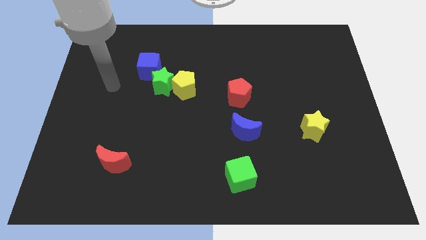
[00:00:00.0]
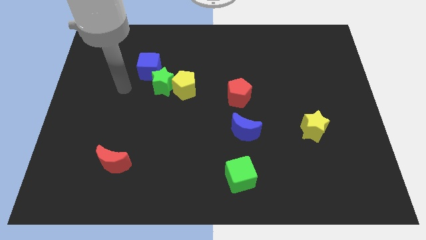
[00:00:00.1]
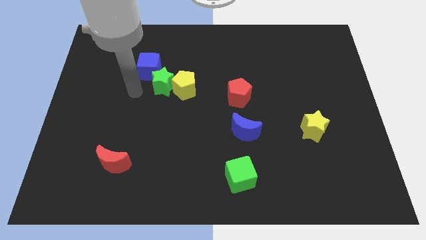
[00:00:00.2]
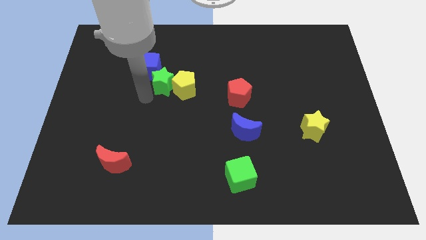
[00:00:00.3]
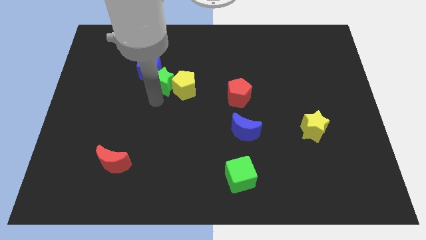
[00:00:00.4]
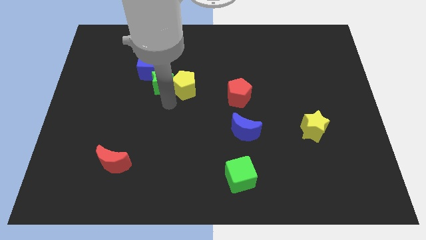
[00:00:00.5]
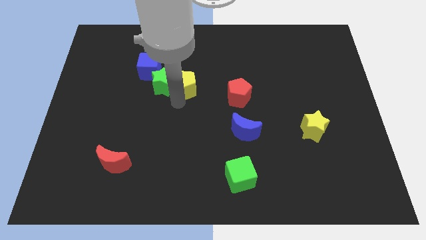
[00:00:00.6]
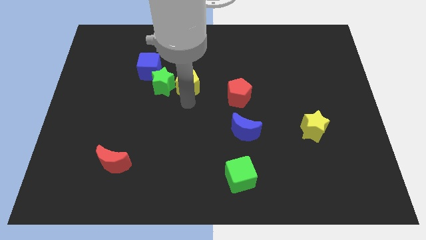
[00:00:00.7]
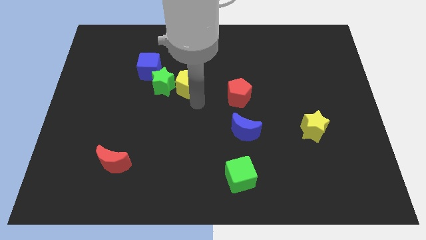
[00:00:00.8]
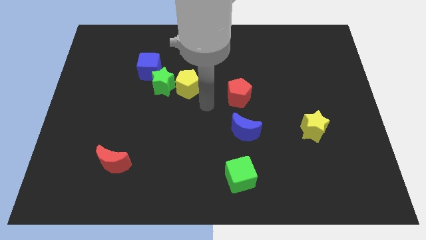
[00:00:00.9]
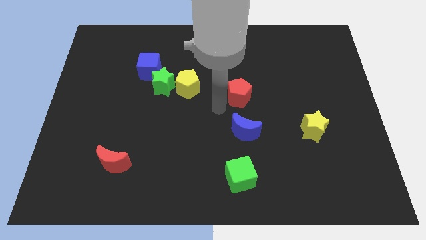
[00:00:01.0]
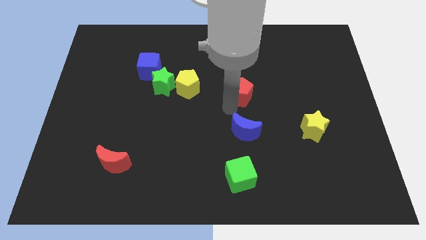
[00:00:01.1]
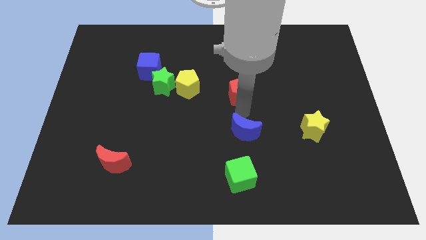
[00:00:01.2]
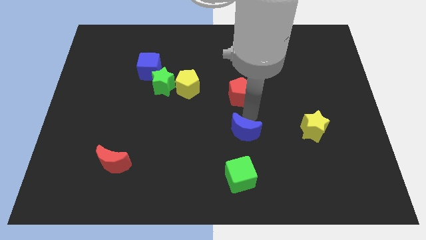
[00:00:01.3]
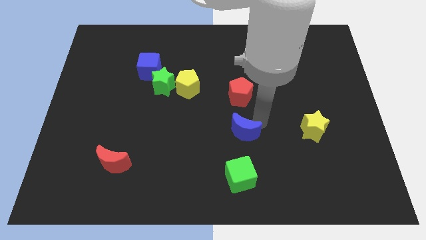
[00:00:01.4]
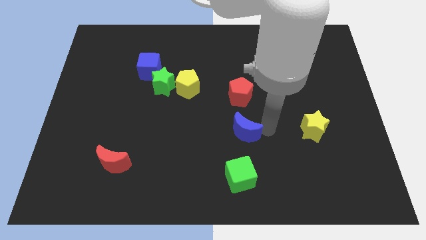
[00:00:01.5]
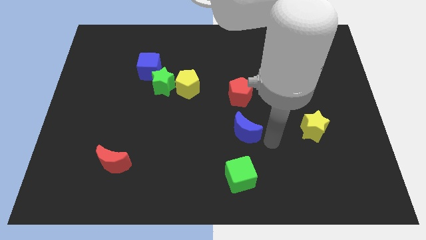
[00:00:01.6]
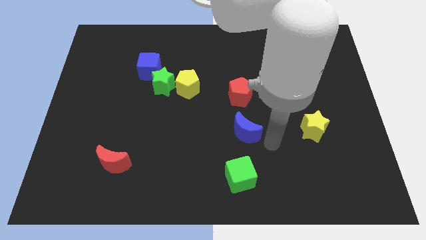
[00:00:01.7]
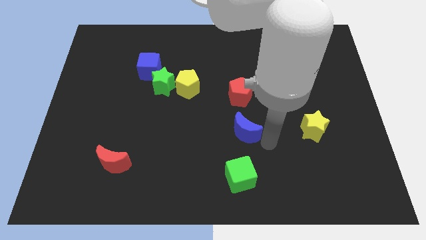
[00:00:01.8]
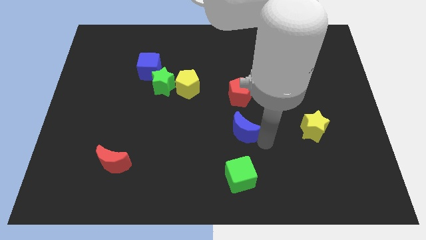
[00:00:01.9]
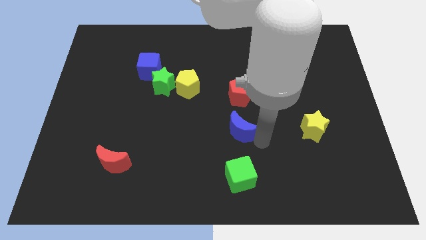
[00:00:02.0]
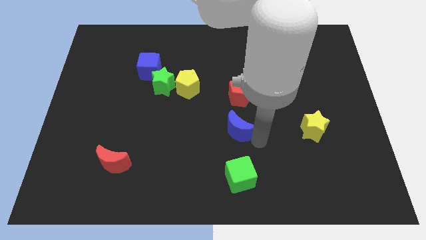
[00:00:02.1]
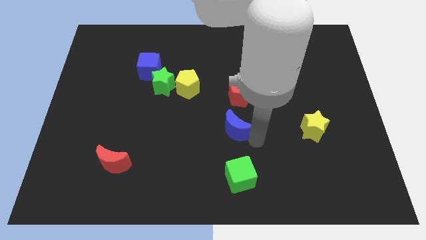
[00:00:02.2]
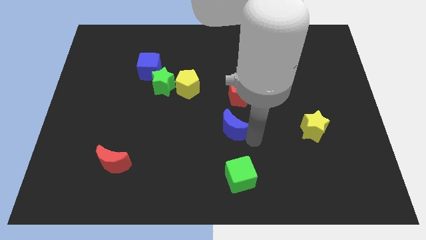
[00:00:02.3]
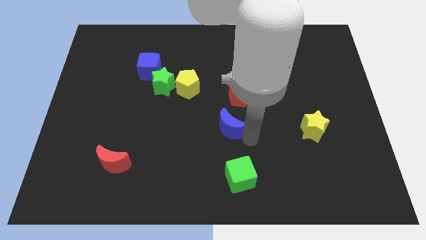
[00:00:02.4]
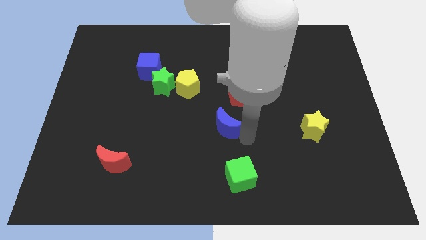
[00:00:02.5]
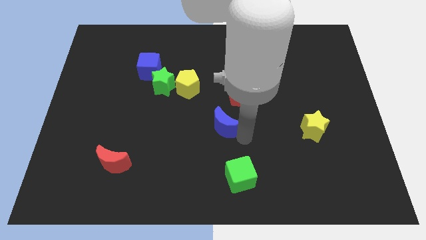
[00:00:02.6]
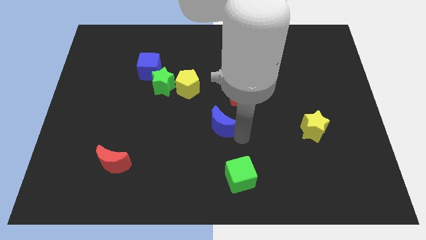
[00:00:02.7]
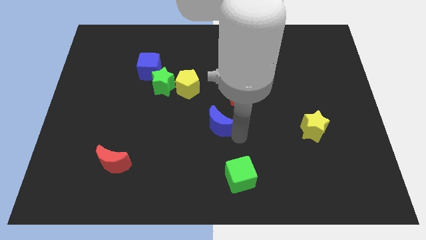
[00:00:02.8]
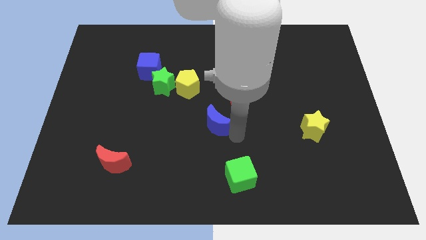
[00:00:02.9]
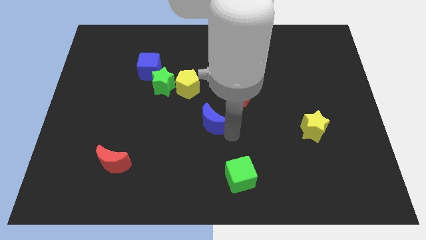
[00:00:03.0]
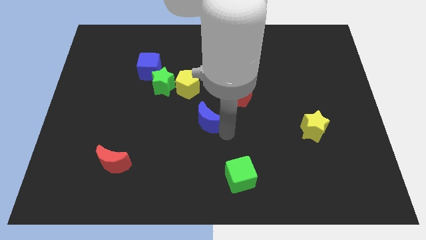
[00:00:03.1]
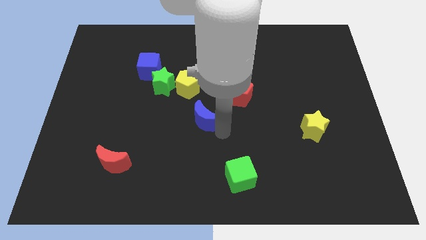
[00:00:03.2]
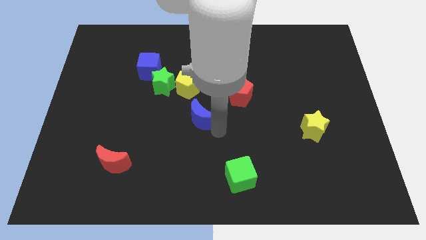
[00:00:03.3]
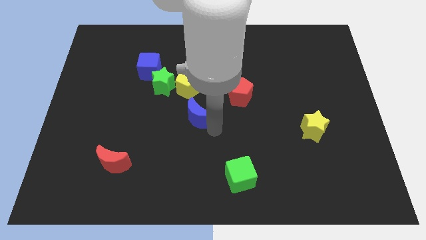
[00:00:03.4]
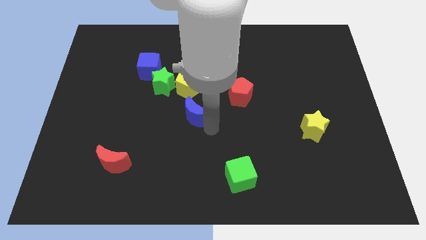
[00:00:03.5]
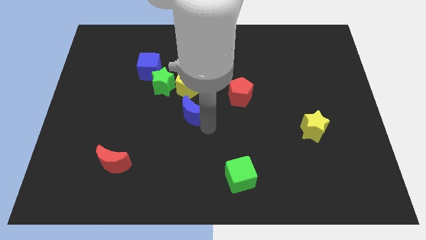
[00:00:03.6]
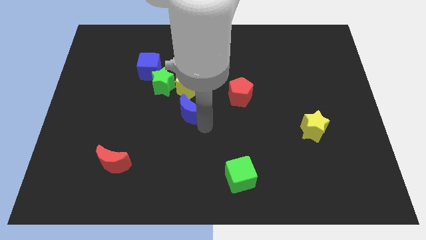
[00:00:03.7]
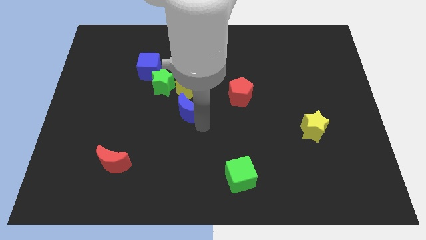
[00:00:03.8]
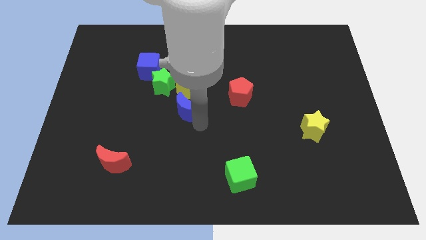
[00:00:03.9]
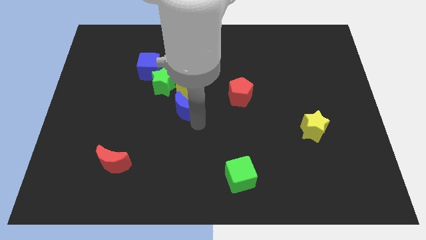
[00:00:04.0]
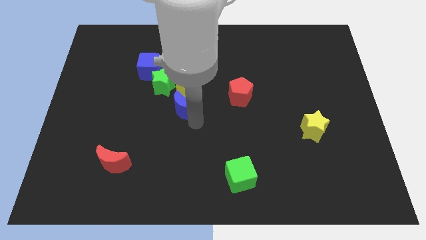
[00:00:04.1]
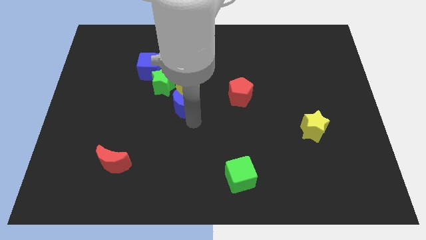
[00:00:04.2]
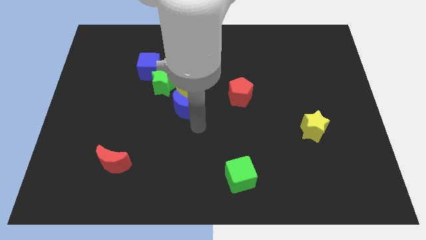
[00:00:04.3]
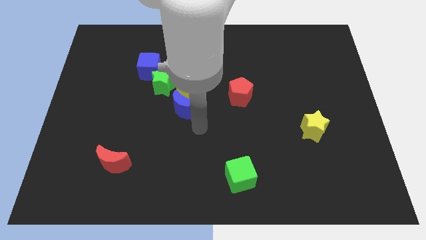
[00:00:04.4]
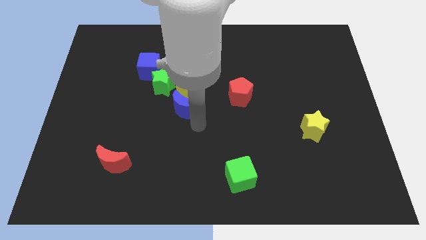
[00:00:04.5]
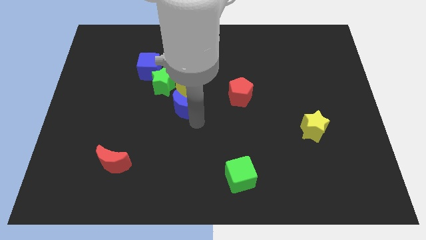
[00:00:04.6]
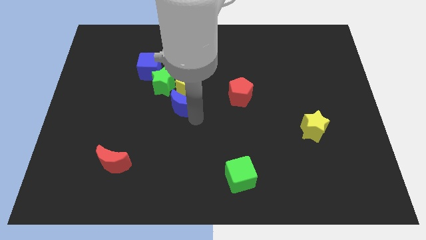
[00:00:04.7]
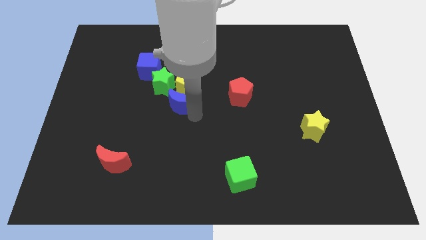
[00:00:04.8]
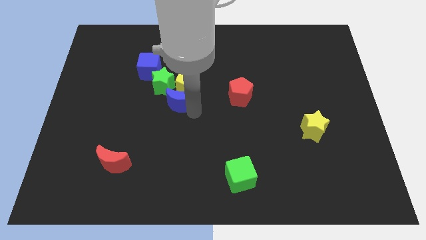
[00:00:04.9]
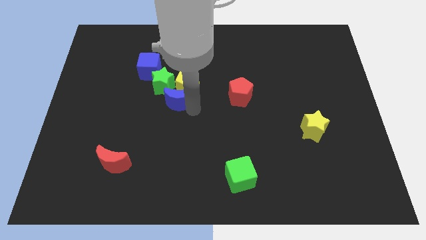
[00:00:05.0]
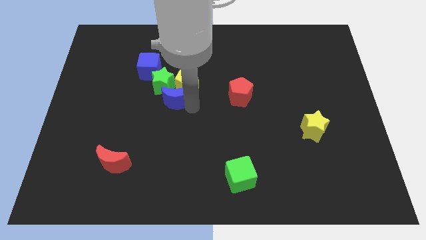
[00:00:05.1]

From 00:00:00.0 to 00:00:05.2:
put the blue moon next to the green star

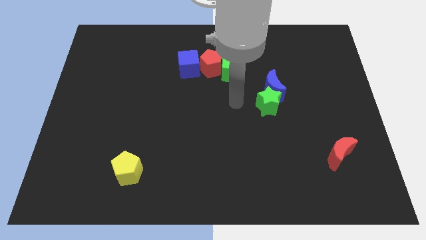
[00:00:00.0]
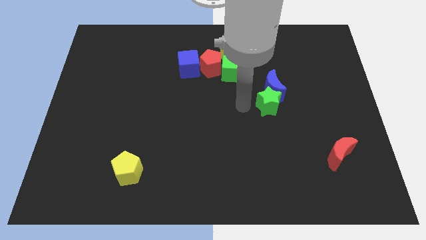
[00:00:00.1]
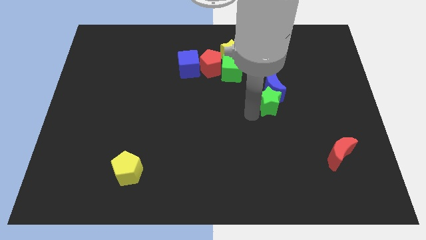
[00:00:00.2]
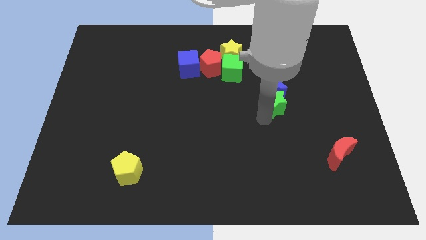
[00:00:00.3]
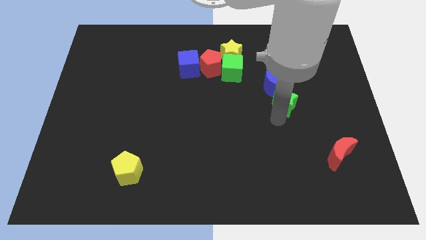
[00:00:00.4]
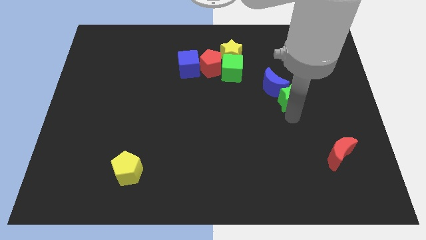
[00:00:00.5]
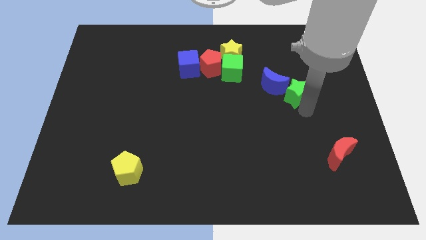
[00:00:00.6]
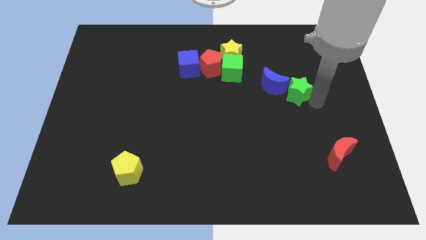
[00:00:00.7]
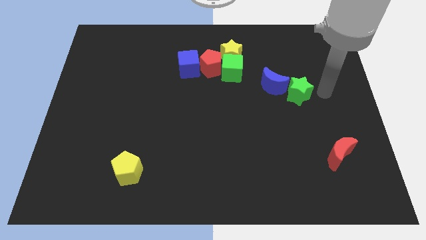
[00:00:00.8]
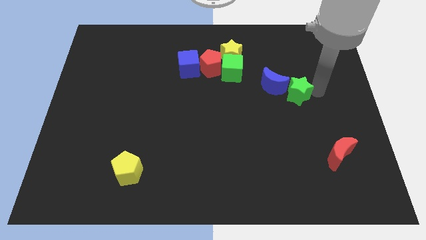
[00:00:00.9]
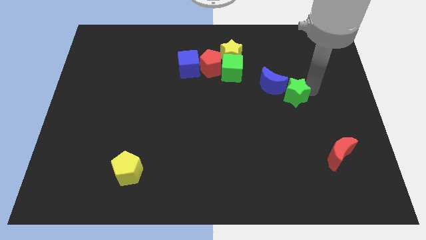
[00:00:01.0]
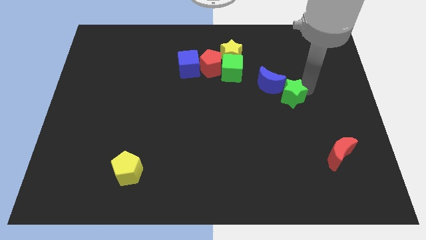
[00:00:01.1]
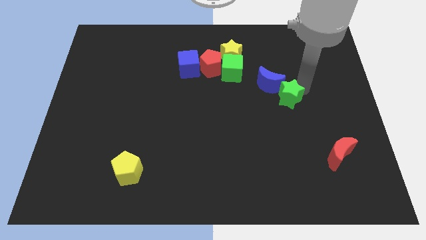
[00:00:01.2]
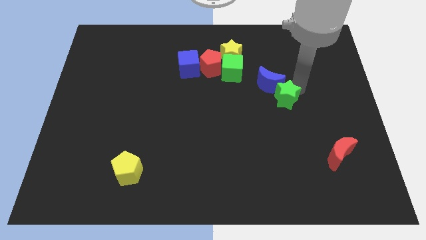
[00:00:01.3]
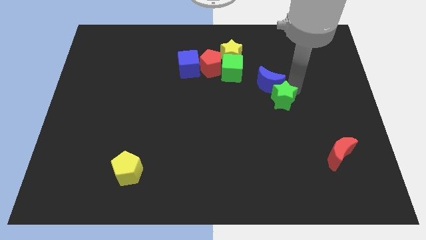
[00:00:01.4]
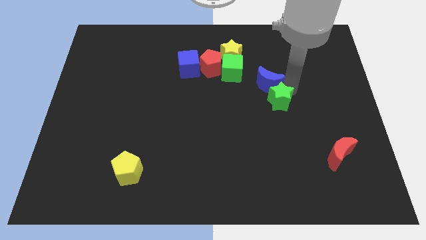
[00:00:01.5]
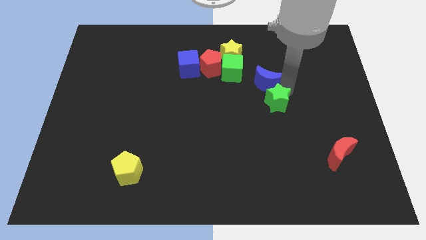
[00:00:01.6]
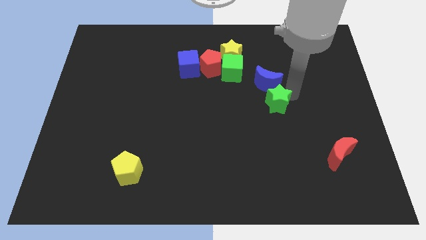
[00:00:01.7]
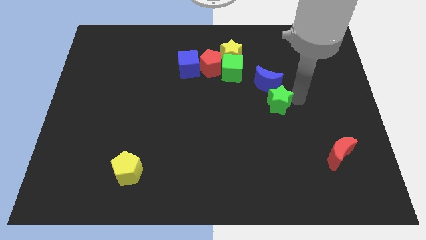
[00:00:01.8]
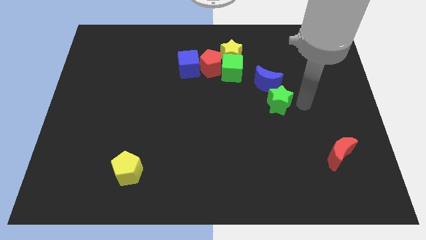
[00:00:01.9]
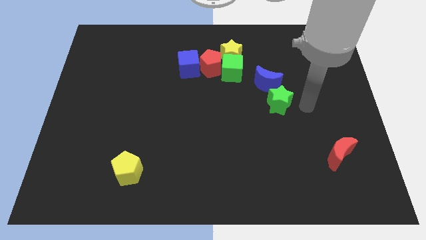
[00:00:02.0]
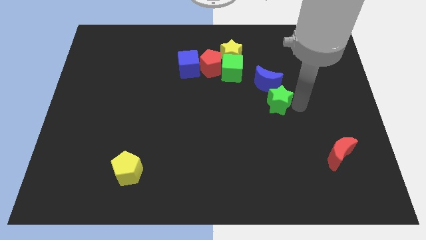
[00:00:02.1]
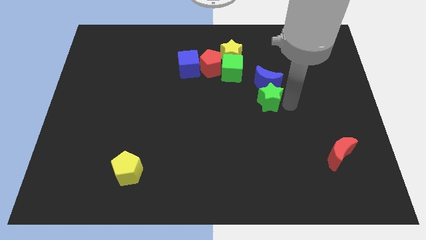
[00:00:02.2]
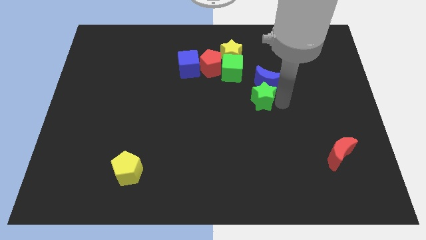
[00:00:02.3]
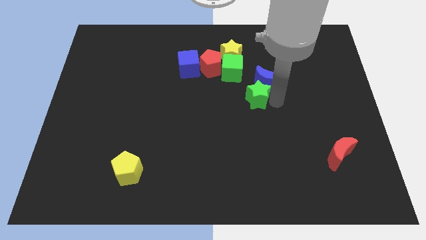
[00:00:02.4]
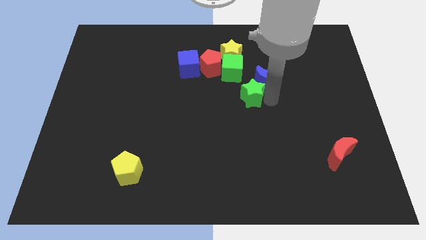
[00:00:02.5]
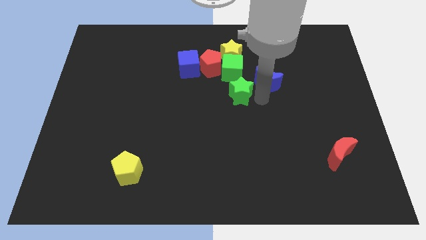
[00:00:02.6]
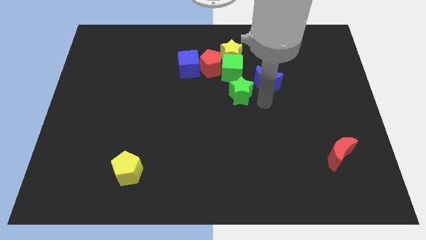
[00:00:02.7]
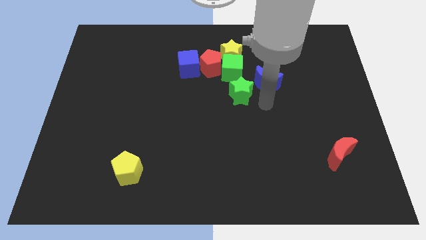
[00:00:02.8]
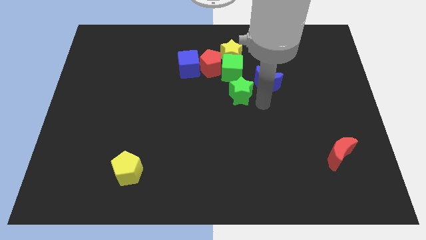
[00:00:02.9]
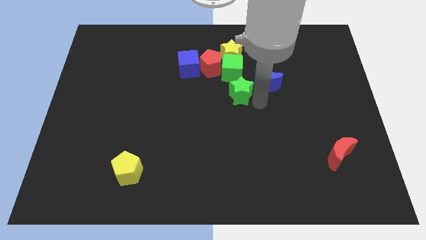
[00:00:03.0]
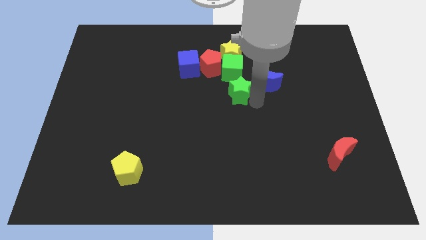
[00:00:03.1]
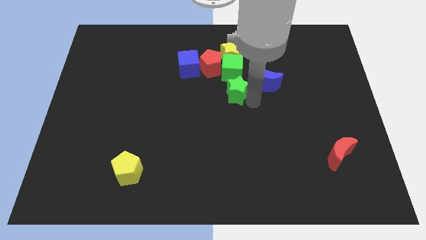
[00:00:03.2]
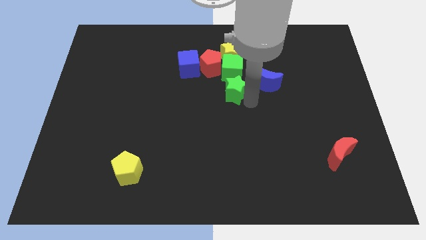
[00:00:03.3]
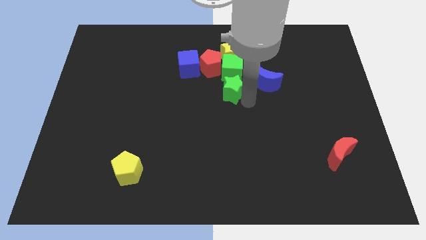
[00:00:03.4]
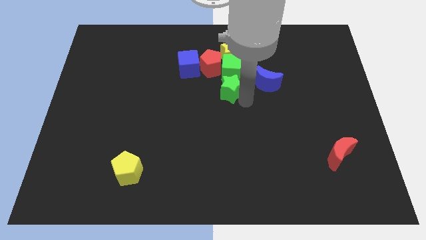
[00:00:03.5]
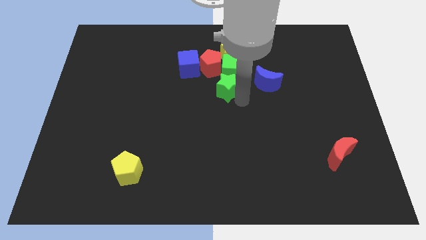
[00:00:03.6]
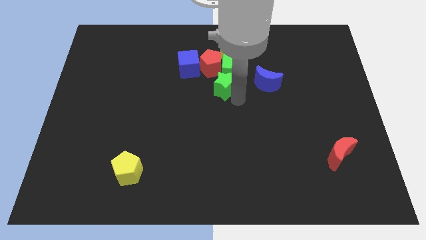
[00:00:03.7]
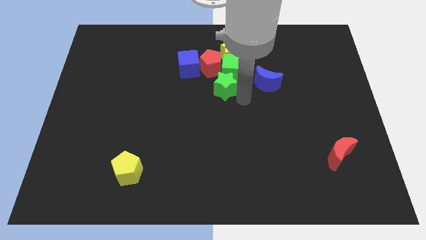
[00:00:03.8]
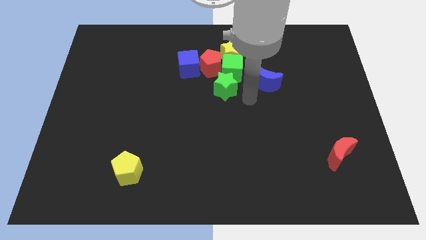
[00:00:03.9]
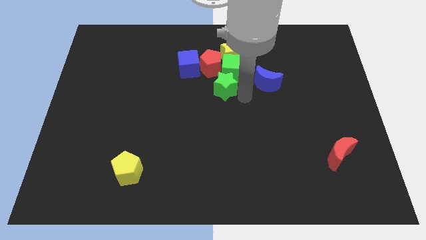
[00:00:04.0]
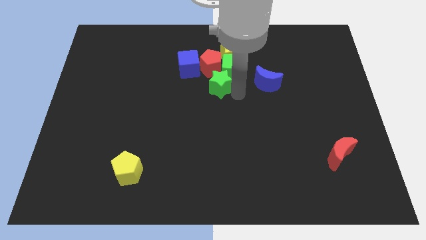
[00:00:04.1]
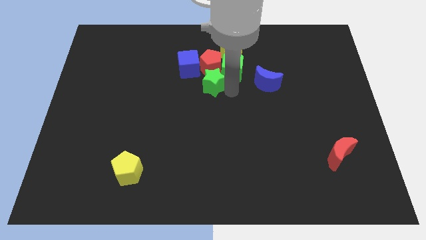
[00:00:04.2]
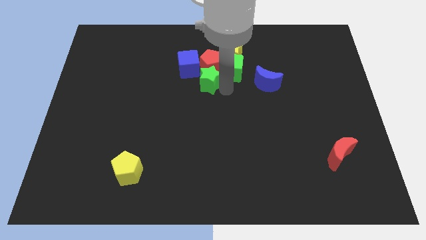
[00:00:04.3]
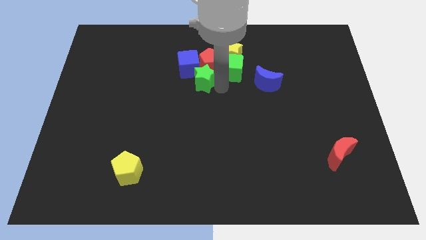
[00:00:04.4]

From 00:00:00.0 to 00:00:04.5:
put the green star next to the blue cube
